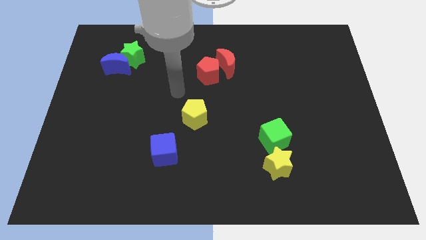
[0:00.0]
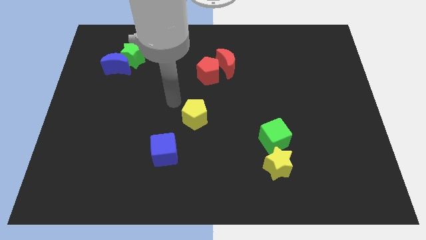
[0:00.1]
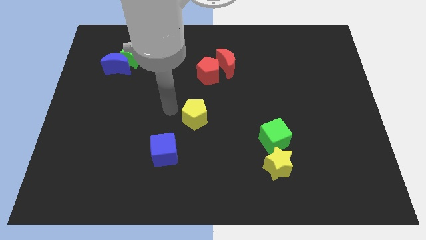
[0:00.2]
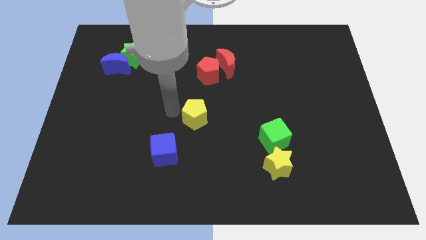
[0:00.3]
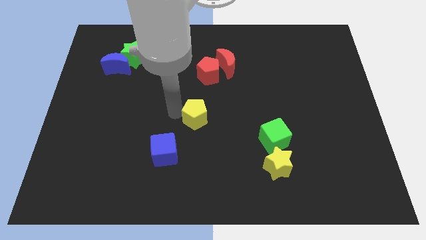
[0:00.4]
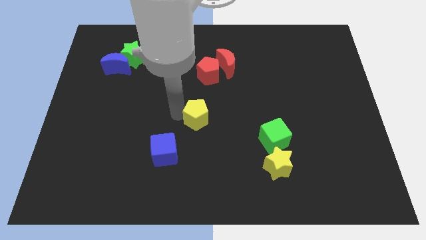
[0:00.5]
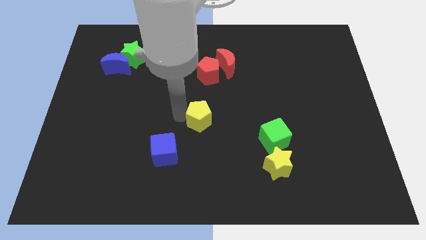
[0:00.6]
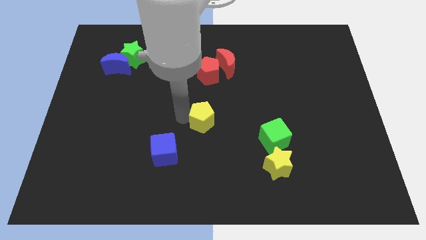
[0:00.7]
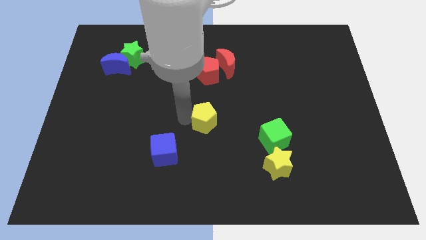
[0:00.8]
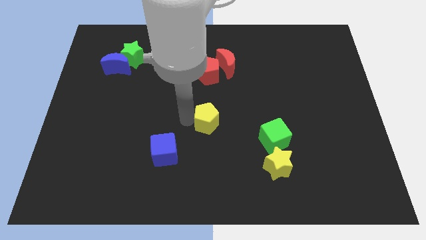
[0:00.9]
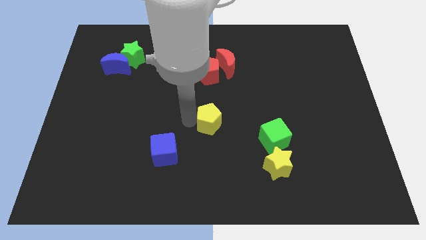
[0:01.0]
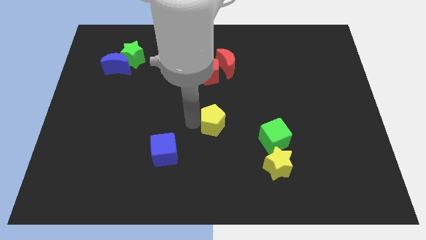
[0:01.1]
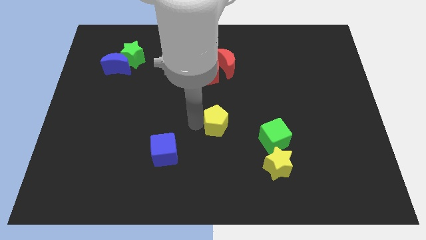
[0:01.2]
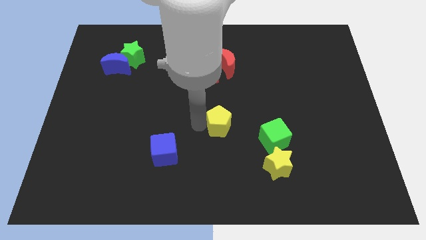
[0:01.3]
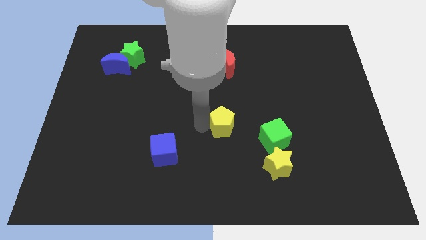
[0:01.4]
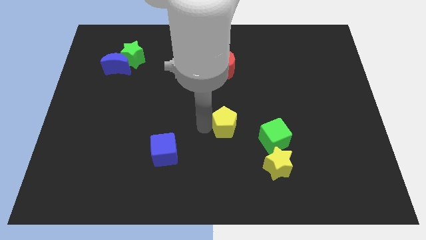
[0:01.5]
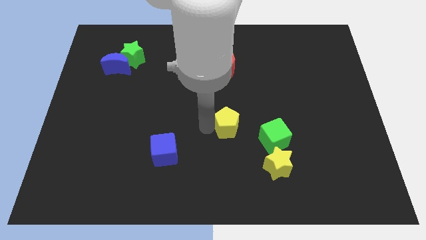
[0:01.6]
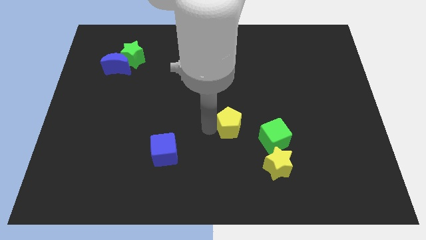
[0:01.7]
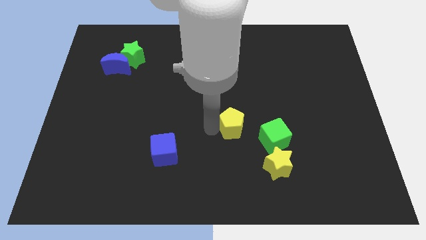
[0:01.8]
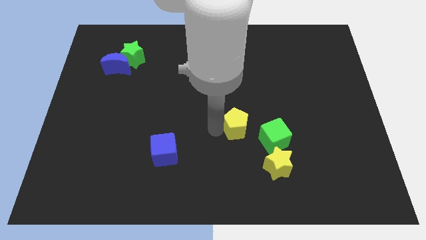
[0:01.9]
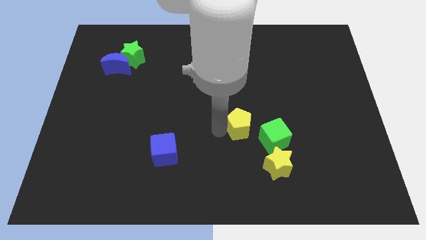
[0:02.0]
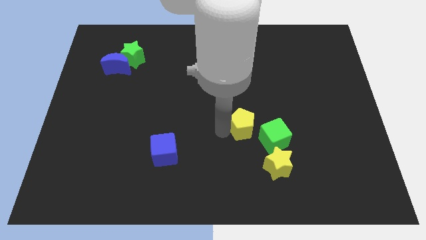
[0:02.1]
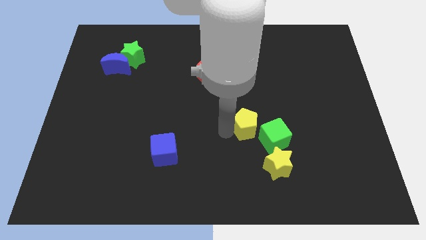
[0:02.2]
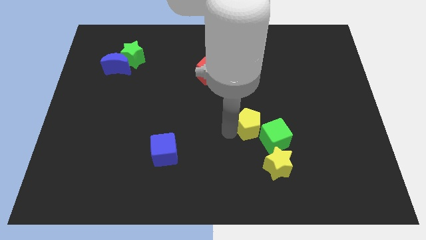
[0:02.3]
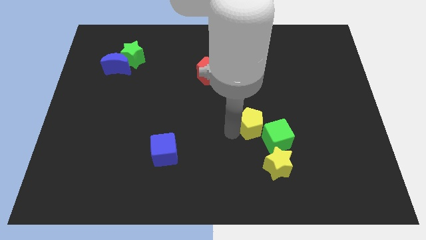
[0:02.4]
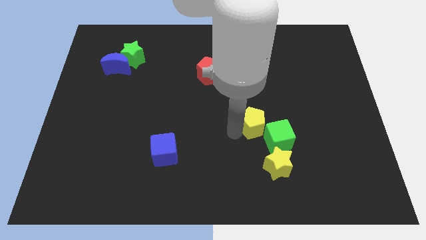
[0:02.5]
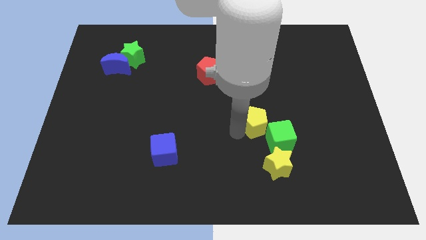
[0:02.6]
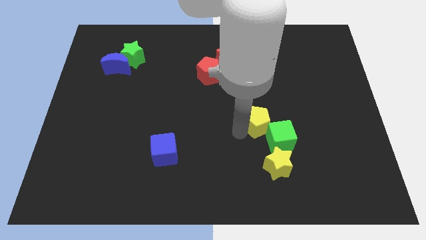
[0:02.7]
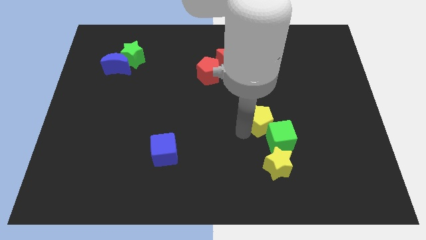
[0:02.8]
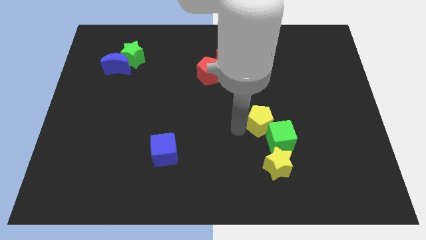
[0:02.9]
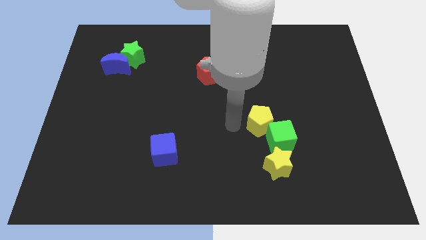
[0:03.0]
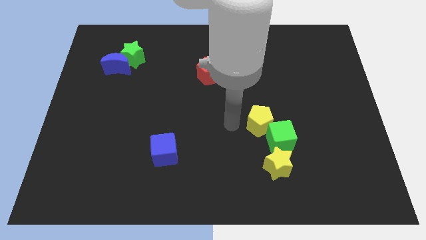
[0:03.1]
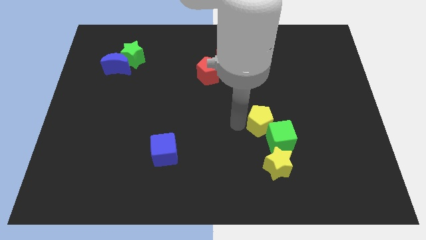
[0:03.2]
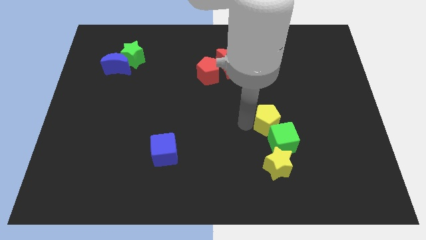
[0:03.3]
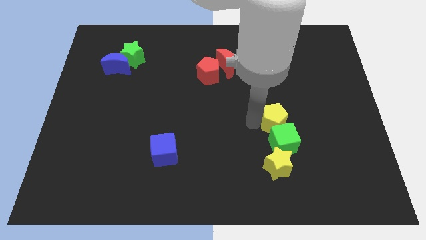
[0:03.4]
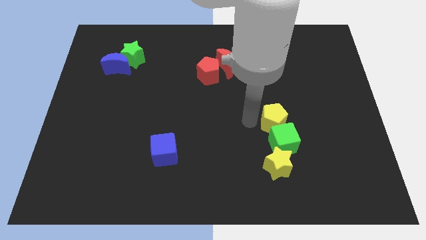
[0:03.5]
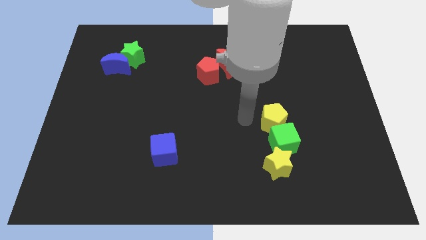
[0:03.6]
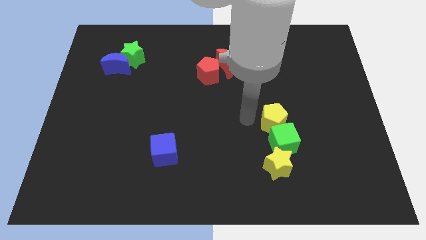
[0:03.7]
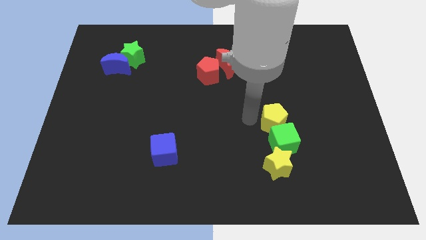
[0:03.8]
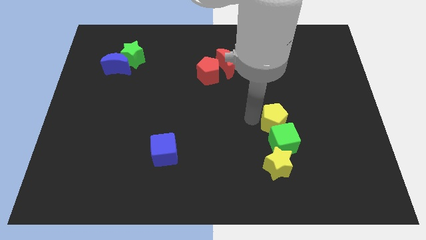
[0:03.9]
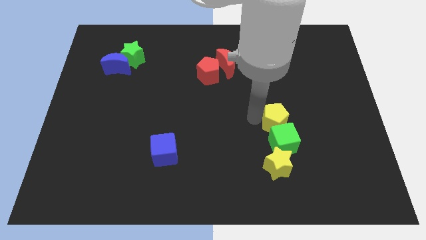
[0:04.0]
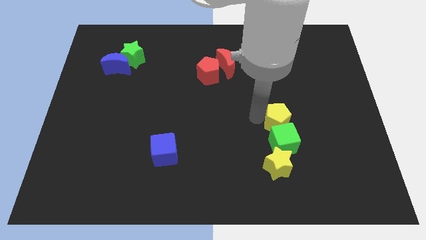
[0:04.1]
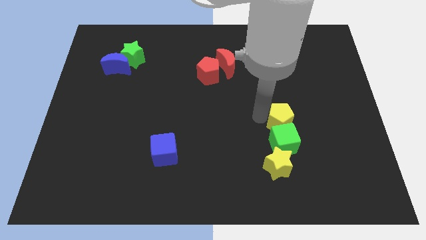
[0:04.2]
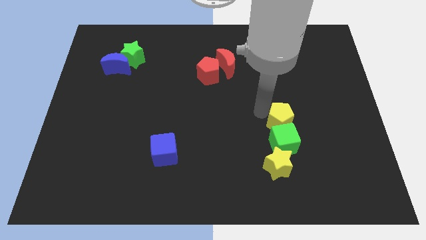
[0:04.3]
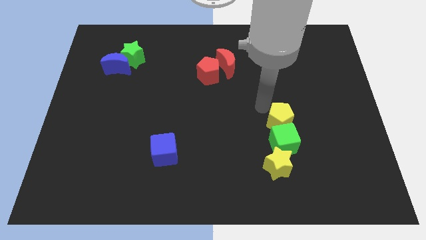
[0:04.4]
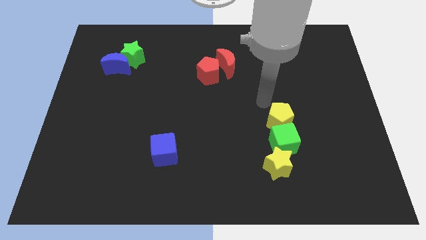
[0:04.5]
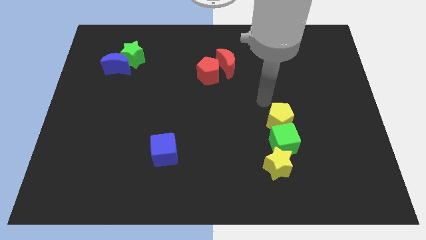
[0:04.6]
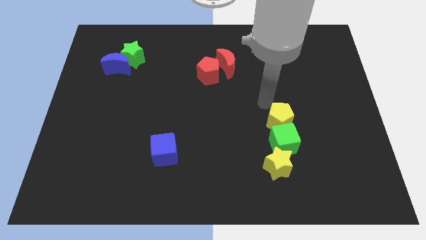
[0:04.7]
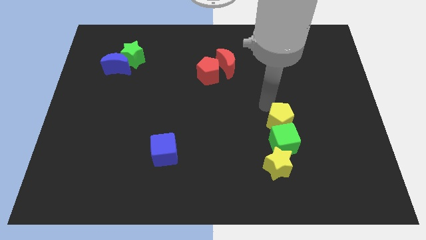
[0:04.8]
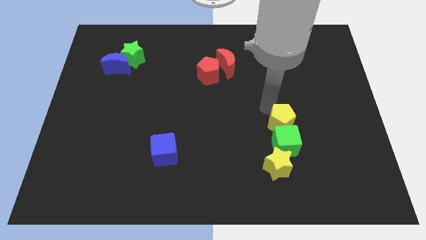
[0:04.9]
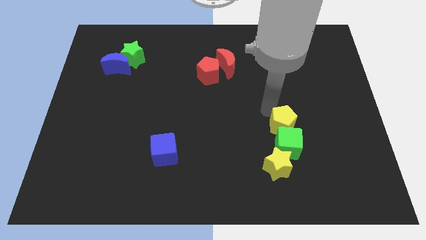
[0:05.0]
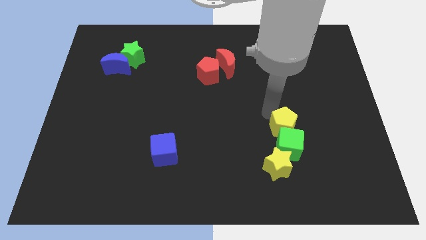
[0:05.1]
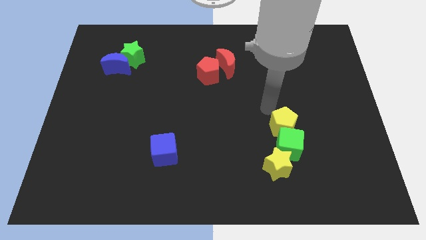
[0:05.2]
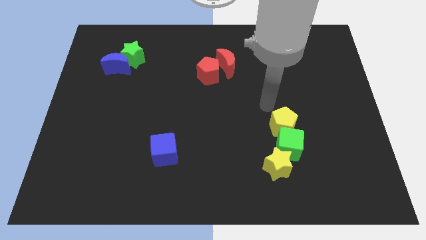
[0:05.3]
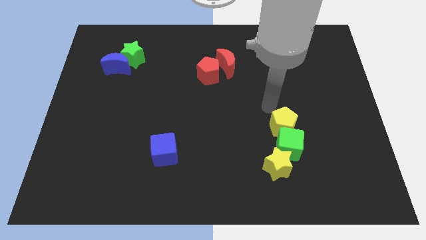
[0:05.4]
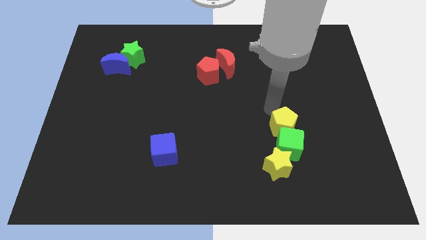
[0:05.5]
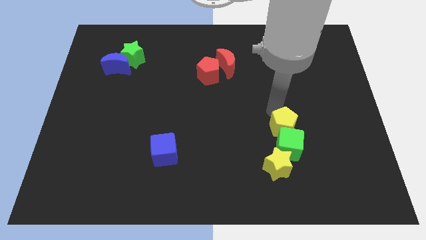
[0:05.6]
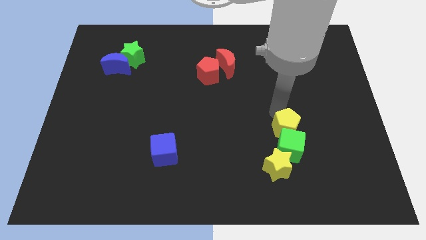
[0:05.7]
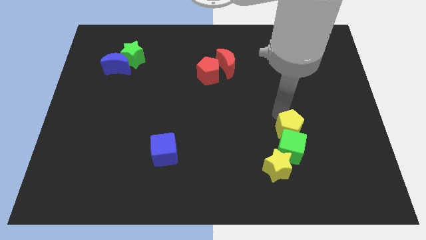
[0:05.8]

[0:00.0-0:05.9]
push the yellow pentagon diagonally up and to the right of the yellow star
